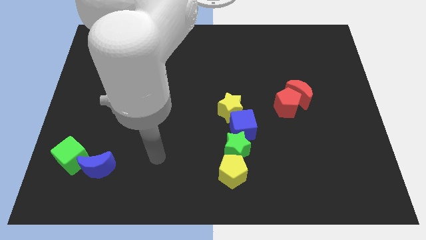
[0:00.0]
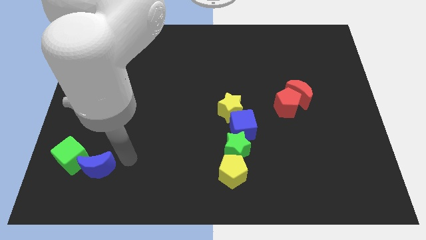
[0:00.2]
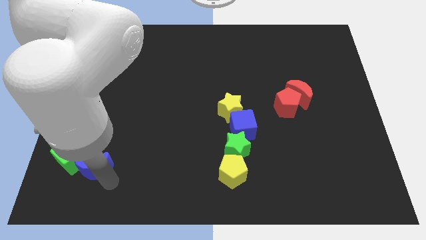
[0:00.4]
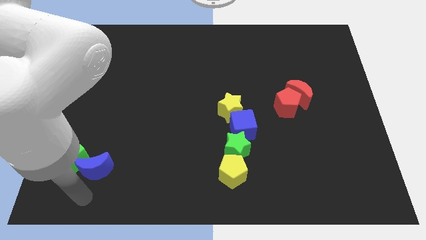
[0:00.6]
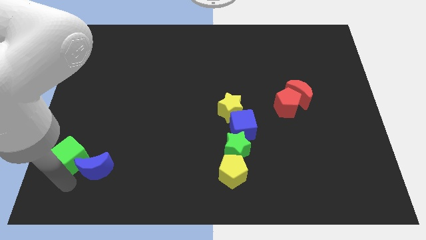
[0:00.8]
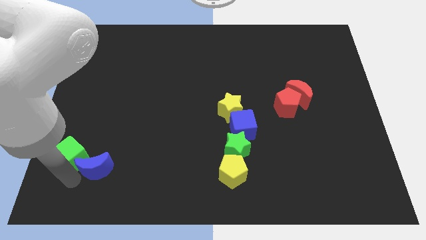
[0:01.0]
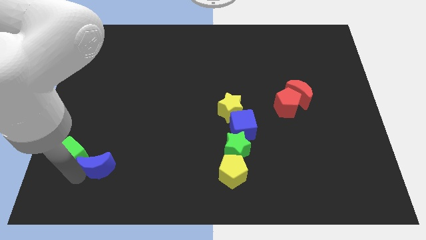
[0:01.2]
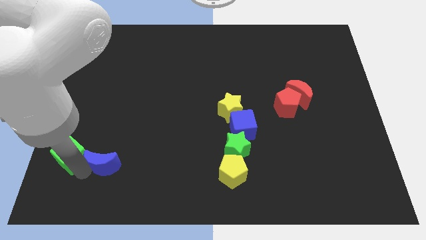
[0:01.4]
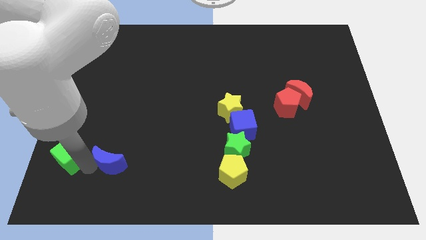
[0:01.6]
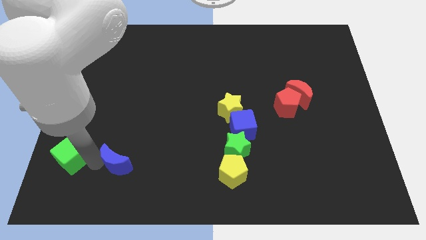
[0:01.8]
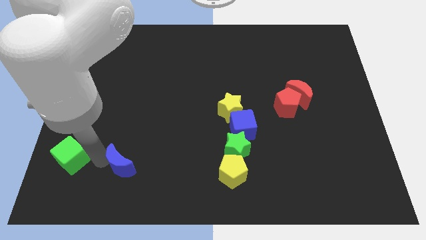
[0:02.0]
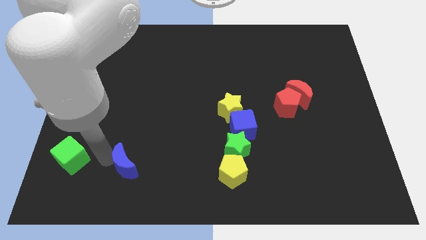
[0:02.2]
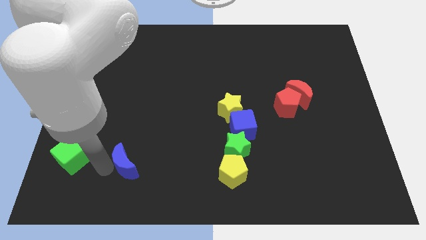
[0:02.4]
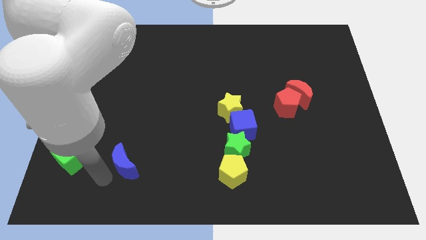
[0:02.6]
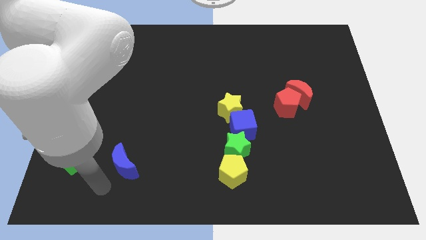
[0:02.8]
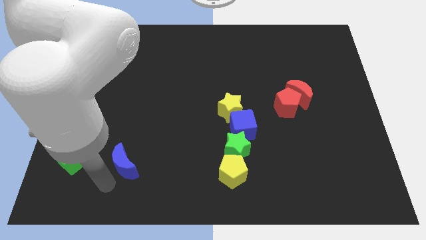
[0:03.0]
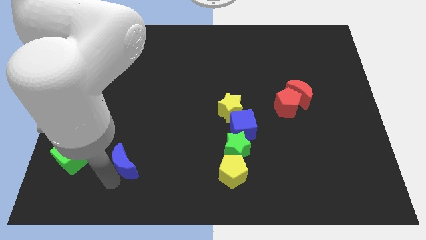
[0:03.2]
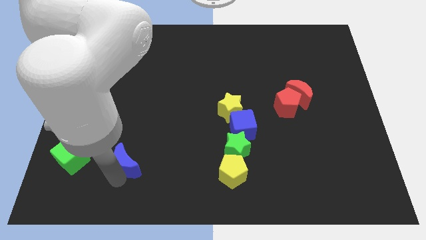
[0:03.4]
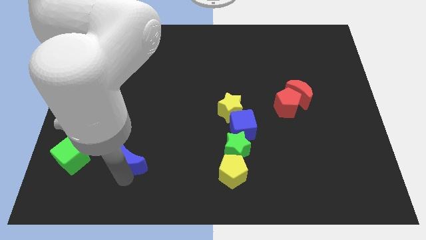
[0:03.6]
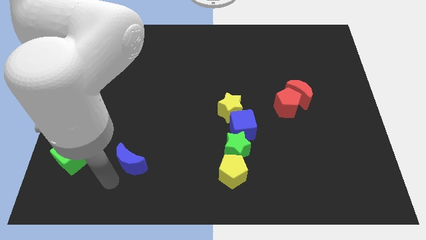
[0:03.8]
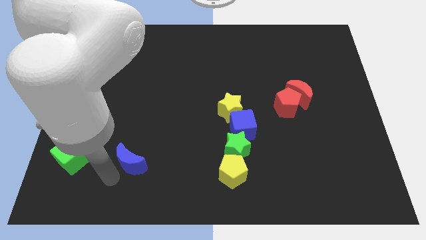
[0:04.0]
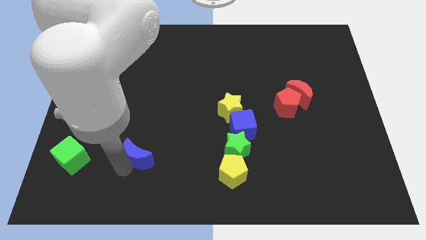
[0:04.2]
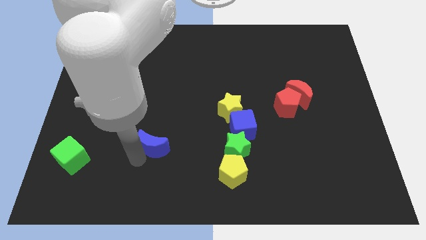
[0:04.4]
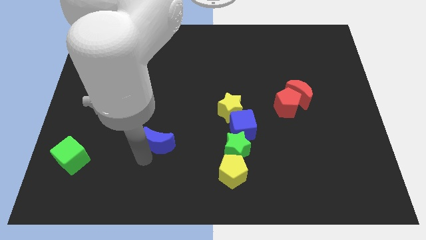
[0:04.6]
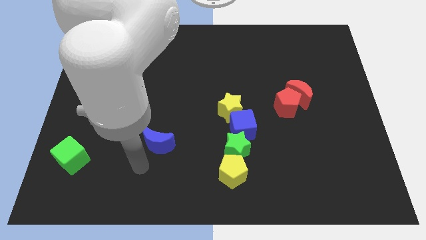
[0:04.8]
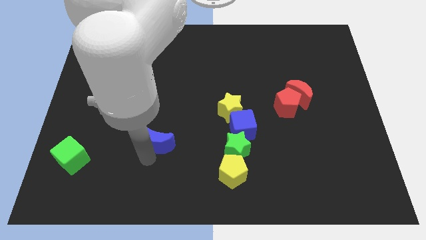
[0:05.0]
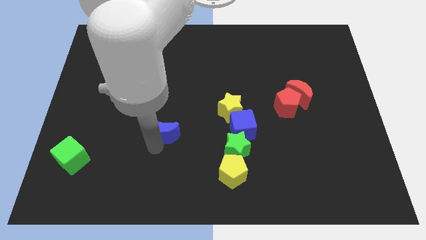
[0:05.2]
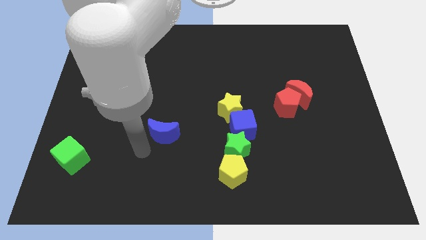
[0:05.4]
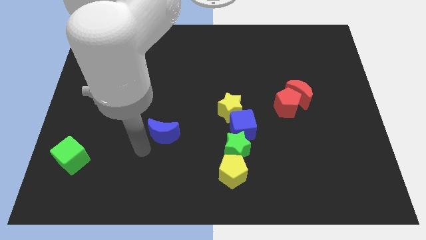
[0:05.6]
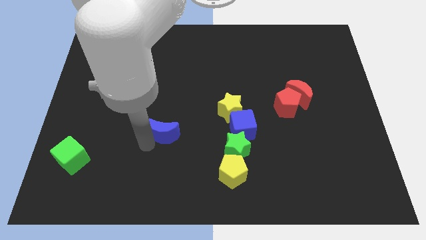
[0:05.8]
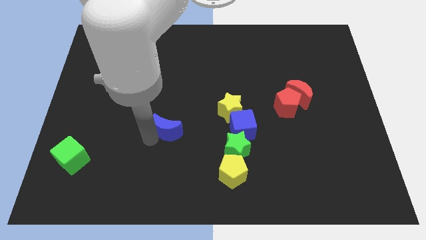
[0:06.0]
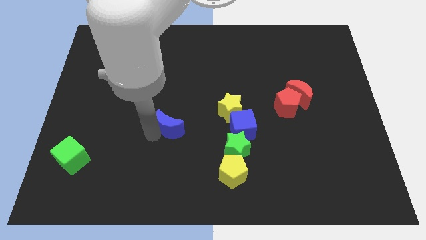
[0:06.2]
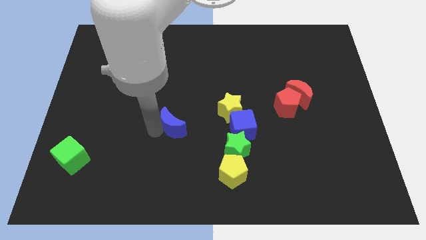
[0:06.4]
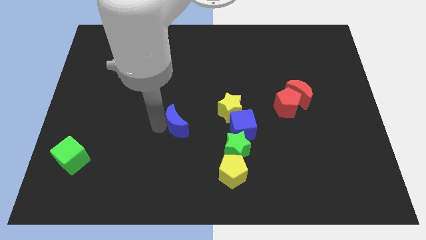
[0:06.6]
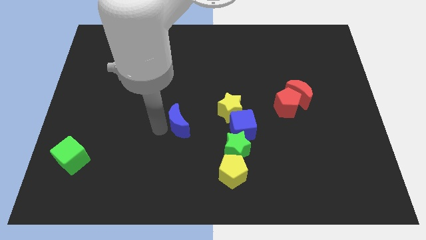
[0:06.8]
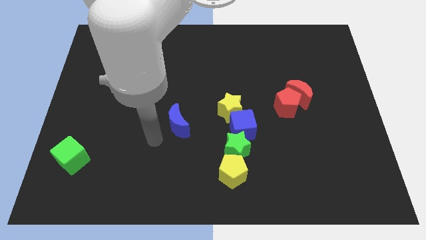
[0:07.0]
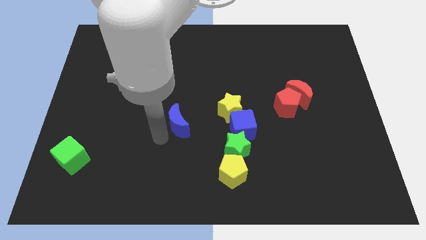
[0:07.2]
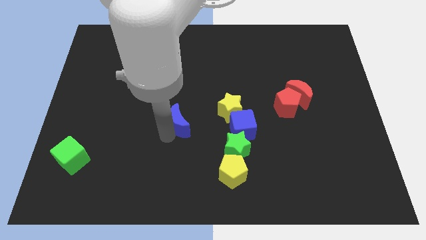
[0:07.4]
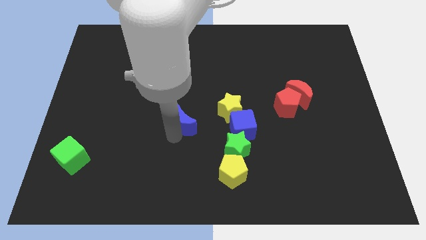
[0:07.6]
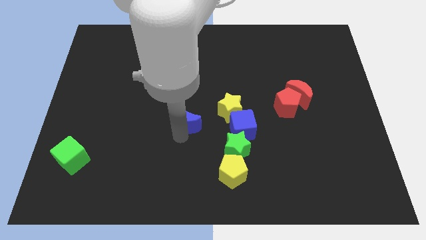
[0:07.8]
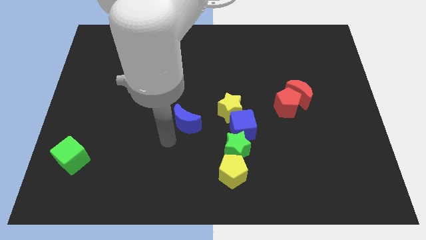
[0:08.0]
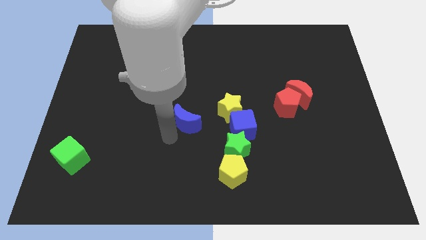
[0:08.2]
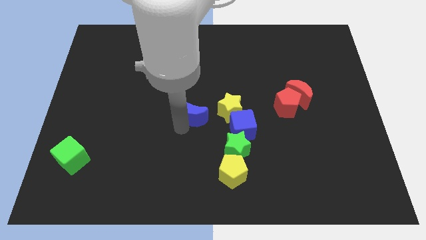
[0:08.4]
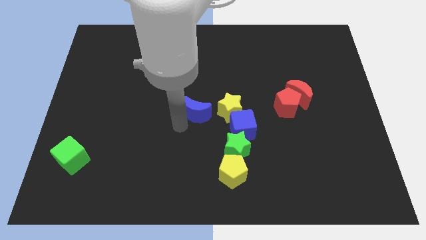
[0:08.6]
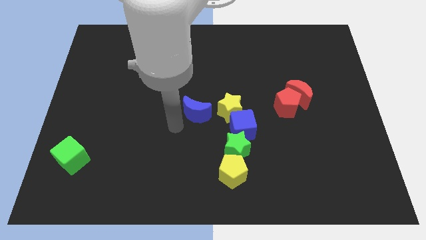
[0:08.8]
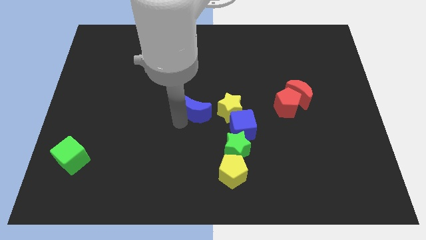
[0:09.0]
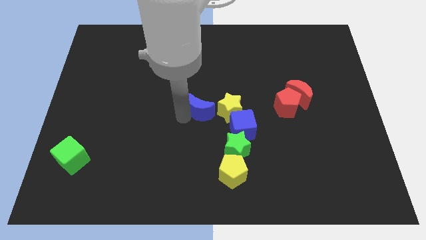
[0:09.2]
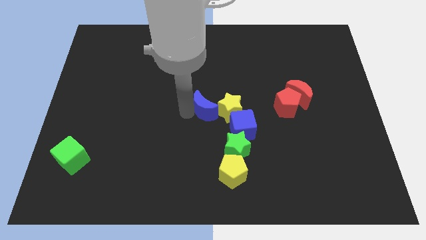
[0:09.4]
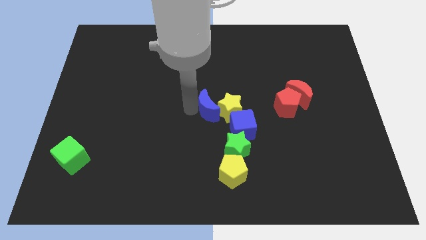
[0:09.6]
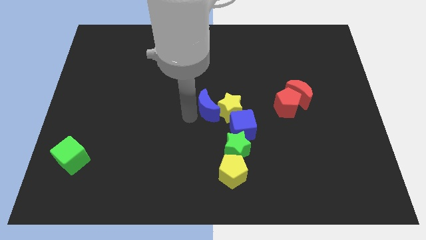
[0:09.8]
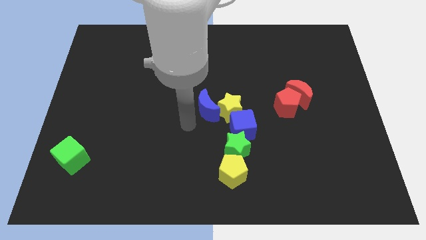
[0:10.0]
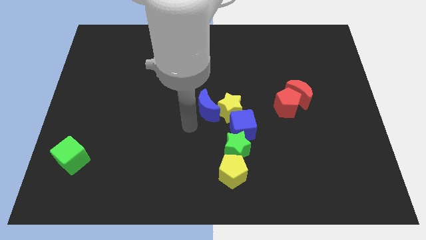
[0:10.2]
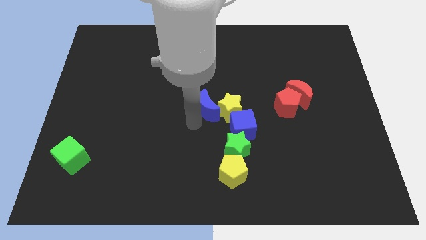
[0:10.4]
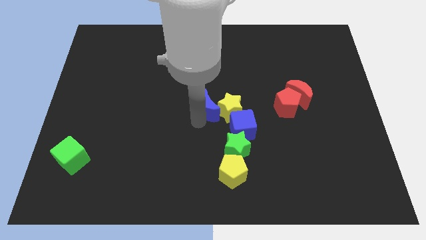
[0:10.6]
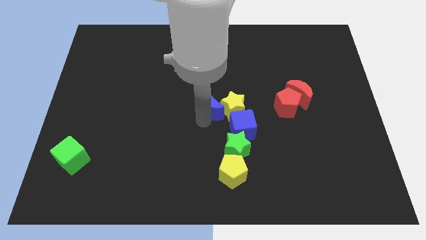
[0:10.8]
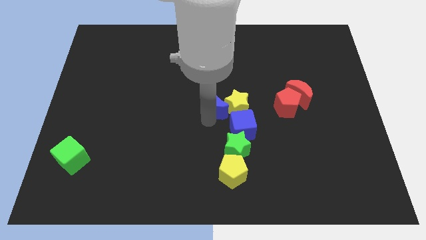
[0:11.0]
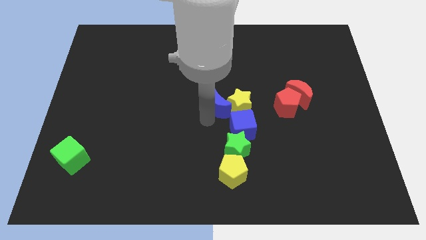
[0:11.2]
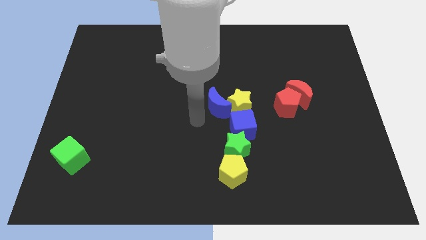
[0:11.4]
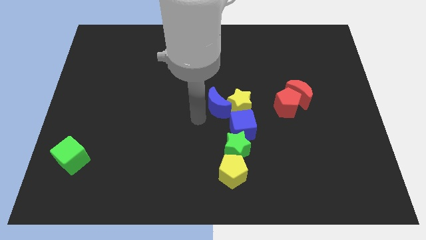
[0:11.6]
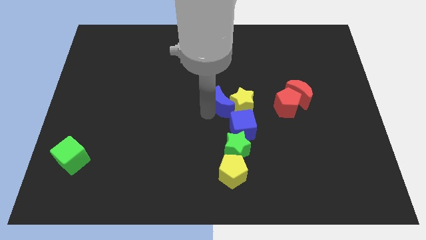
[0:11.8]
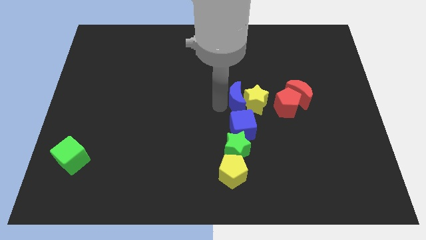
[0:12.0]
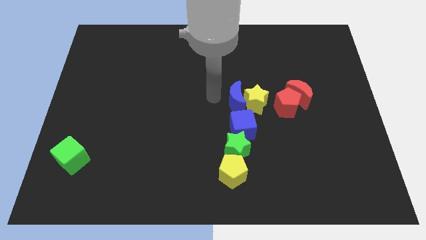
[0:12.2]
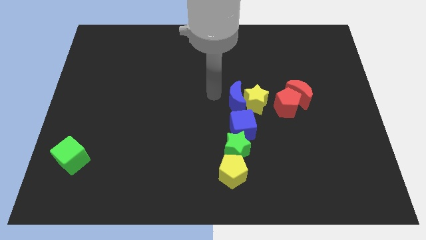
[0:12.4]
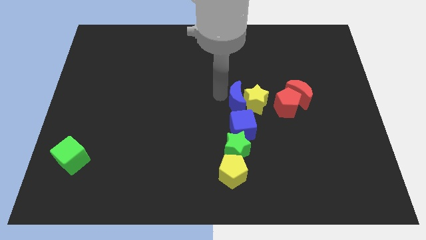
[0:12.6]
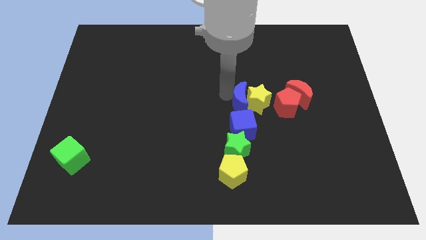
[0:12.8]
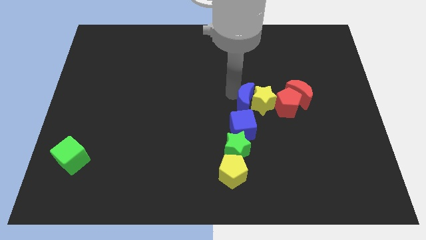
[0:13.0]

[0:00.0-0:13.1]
put the blue moon to the top right of the blue cube

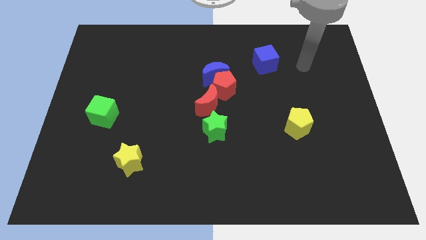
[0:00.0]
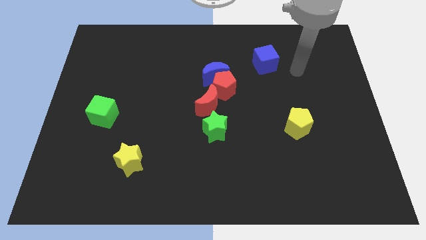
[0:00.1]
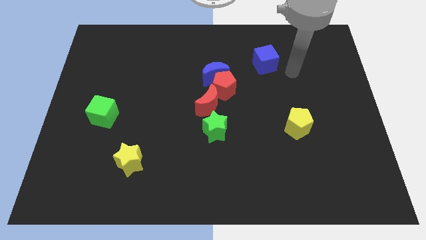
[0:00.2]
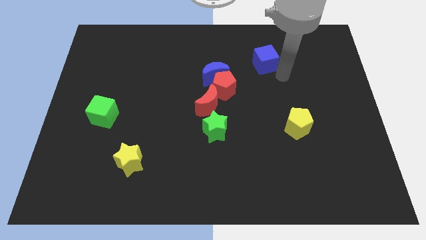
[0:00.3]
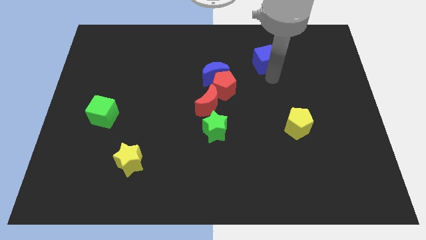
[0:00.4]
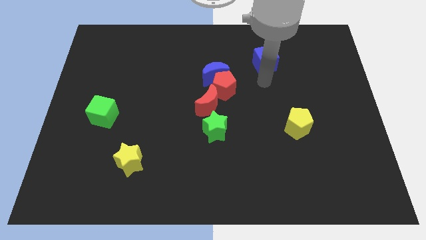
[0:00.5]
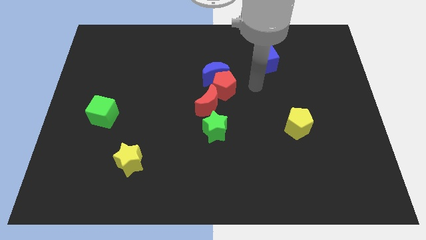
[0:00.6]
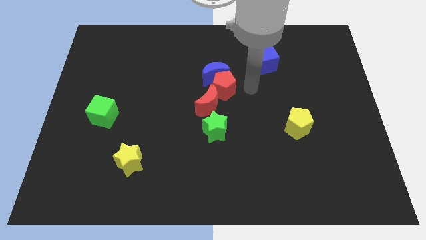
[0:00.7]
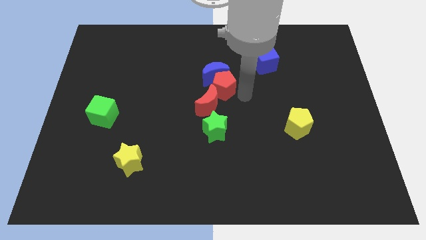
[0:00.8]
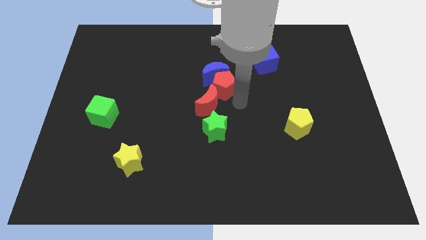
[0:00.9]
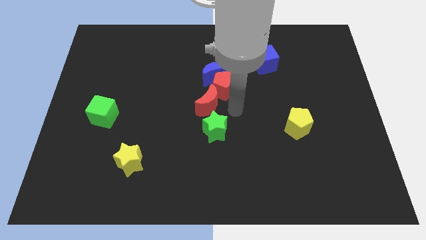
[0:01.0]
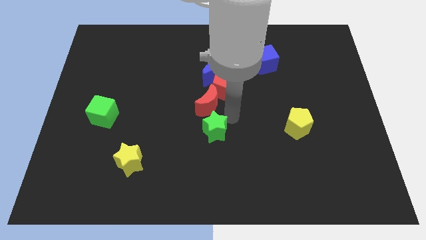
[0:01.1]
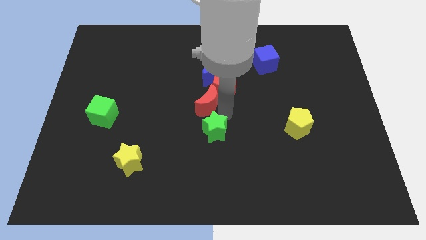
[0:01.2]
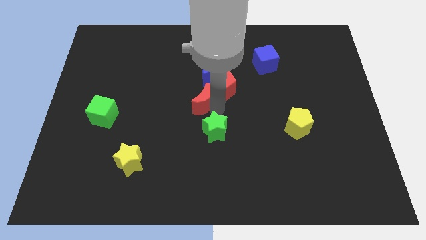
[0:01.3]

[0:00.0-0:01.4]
slide the red moon to the left of the red pentagon
